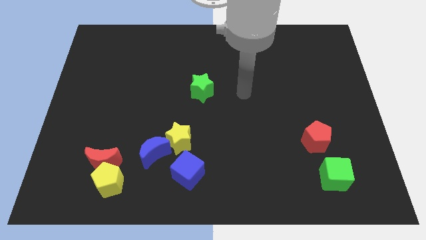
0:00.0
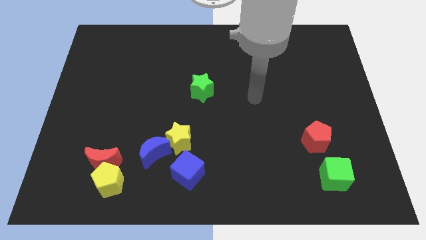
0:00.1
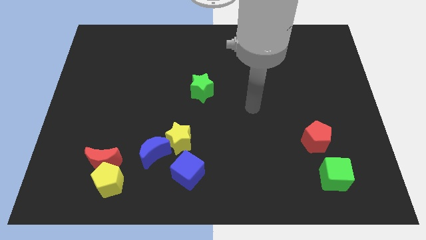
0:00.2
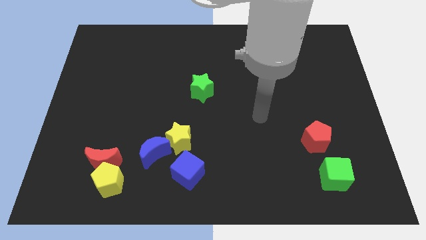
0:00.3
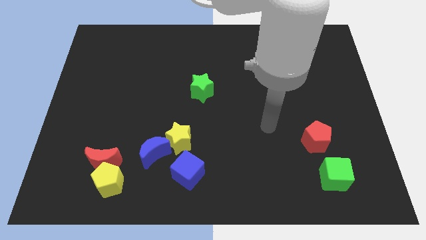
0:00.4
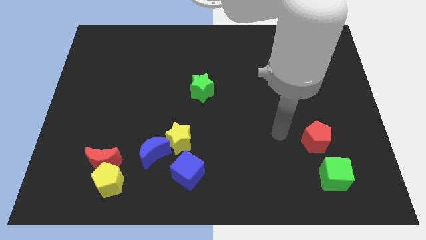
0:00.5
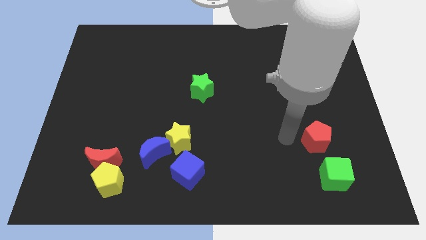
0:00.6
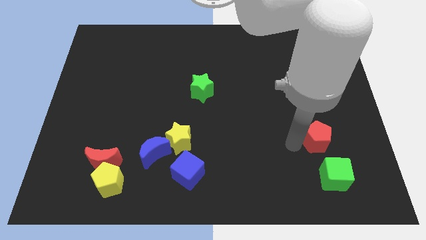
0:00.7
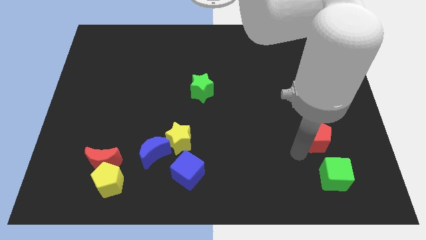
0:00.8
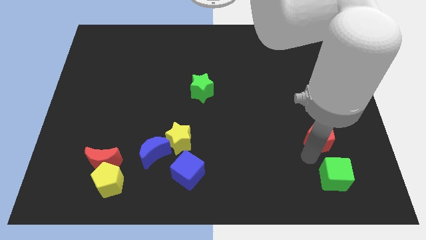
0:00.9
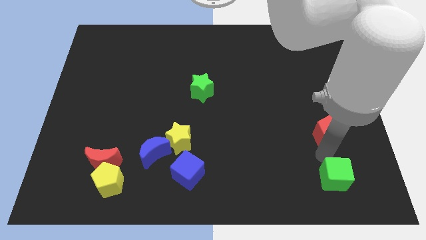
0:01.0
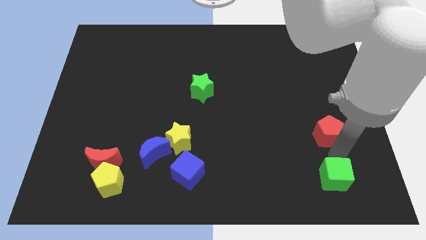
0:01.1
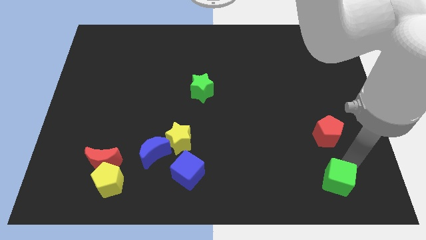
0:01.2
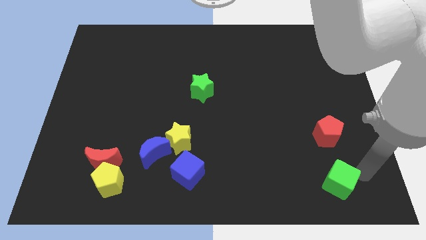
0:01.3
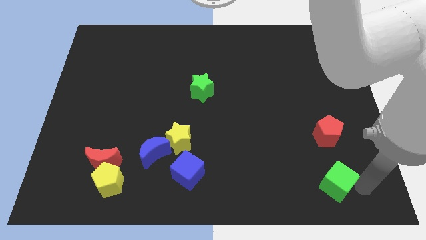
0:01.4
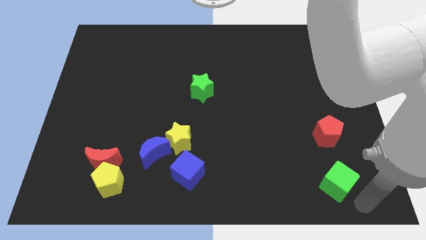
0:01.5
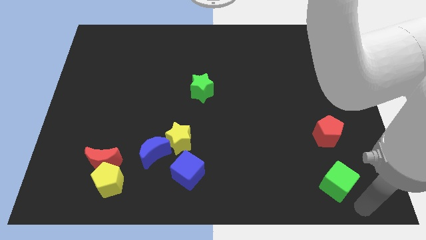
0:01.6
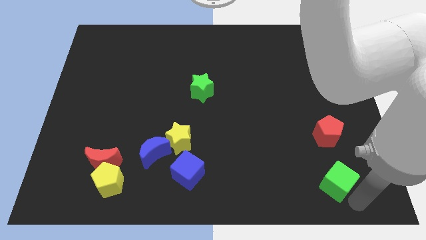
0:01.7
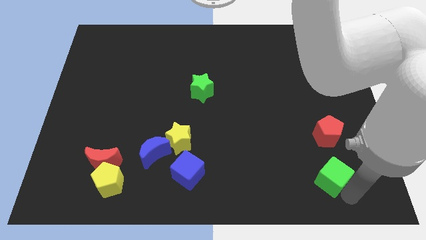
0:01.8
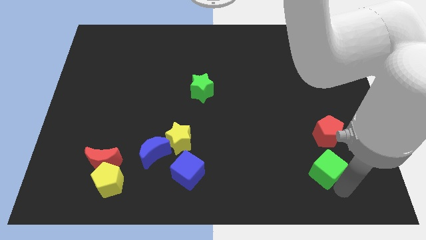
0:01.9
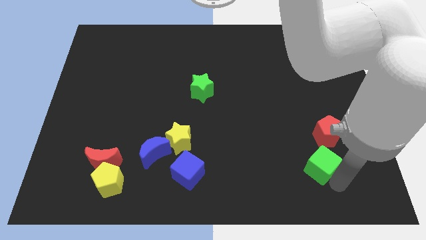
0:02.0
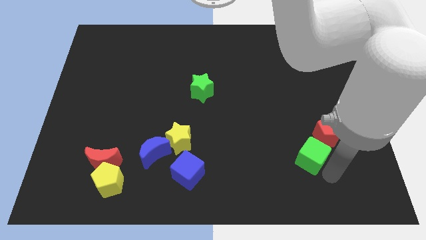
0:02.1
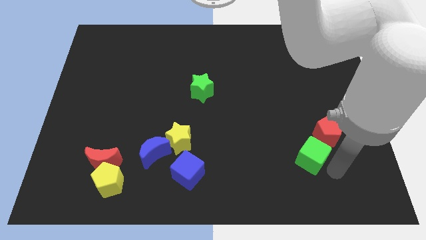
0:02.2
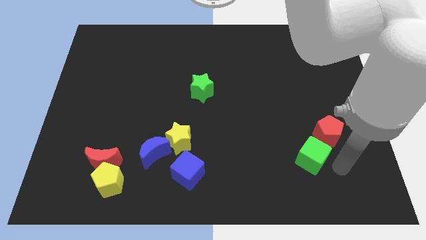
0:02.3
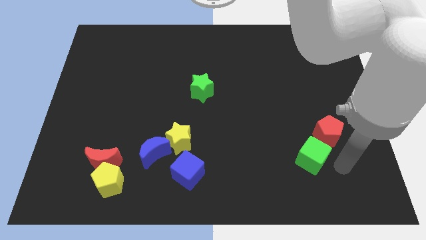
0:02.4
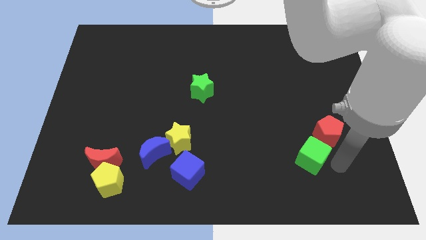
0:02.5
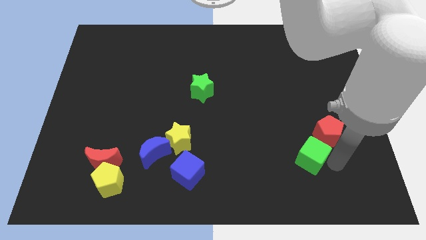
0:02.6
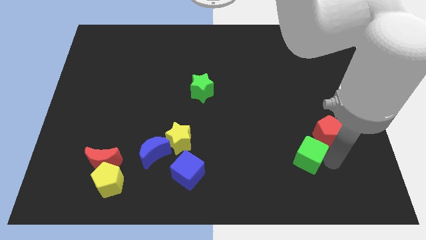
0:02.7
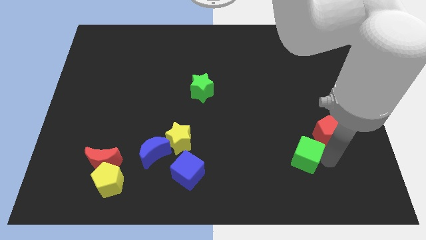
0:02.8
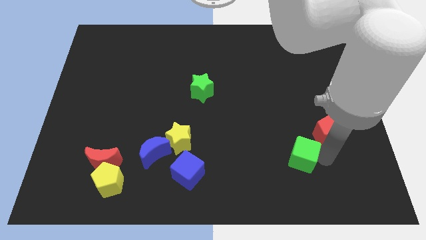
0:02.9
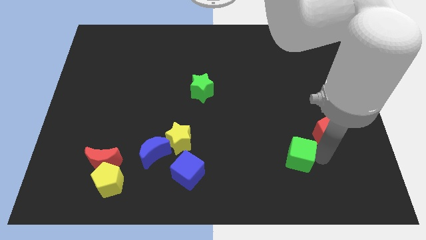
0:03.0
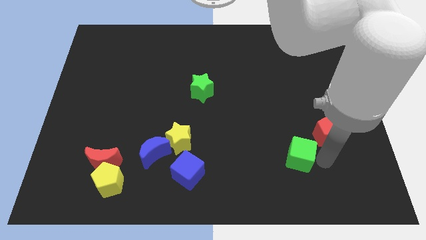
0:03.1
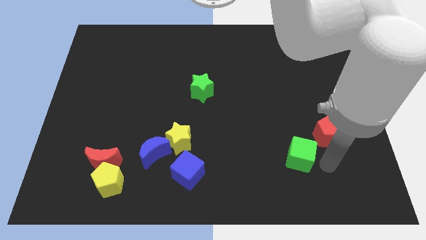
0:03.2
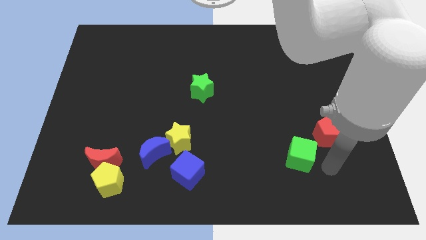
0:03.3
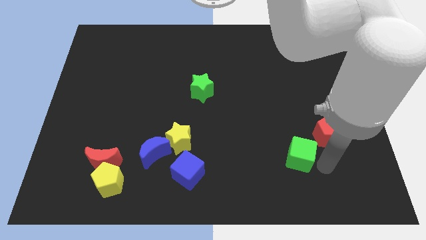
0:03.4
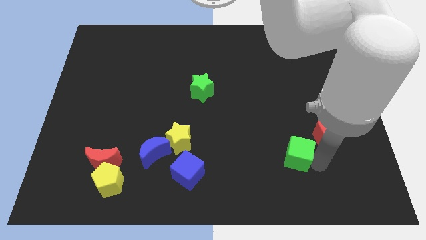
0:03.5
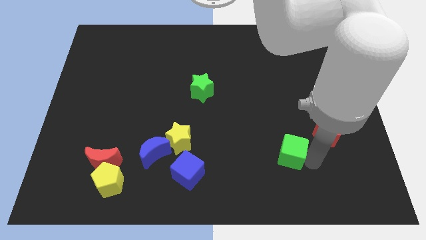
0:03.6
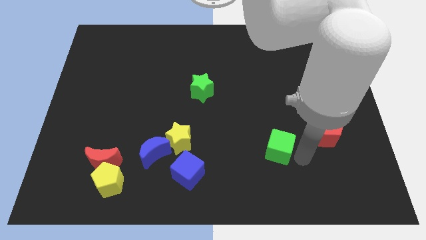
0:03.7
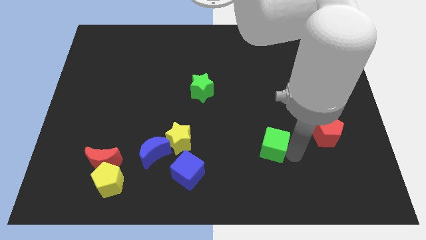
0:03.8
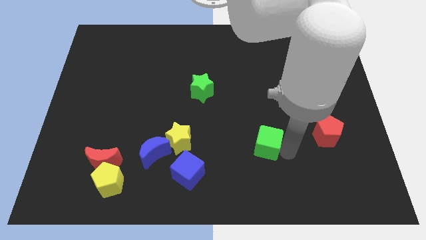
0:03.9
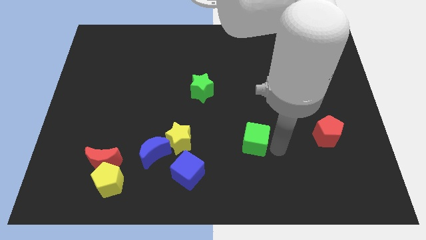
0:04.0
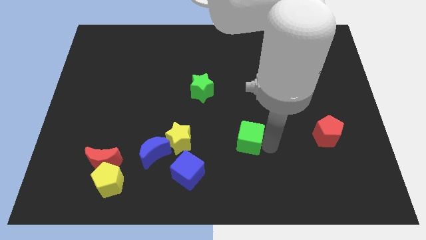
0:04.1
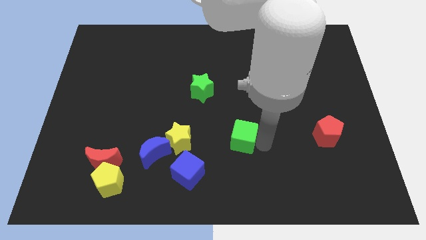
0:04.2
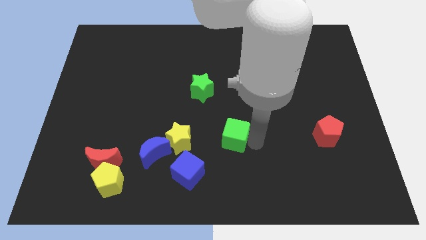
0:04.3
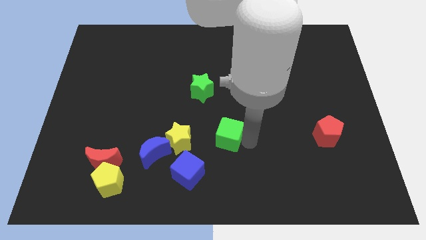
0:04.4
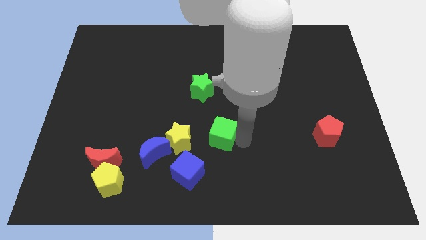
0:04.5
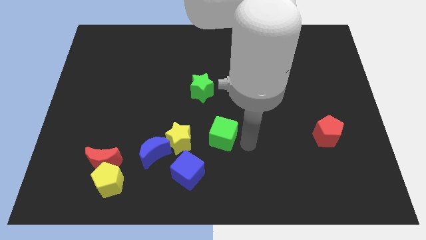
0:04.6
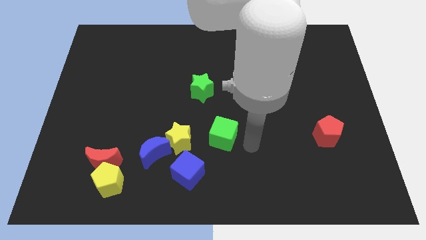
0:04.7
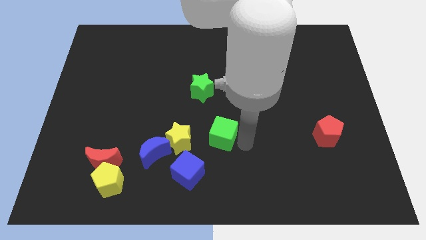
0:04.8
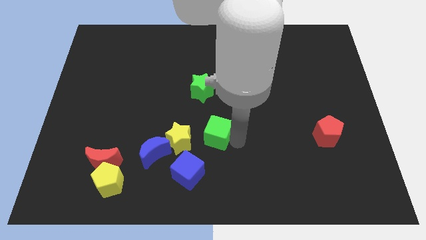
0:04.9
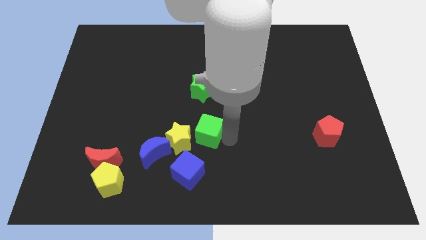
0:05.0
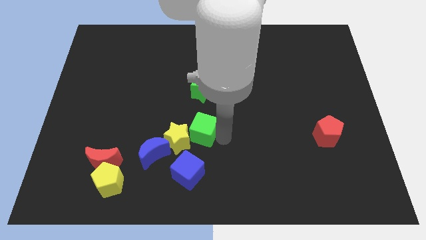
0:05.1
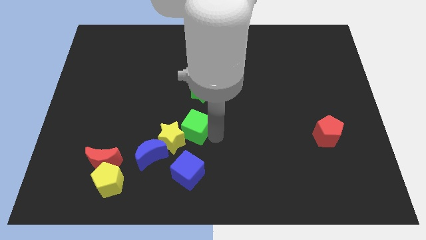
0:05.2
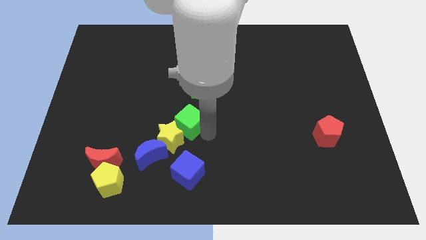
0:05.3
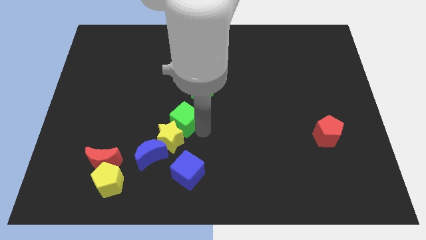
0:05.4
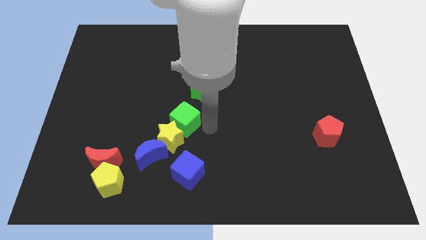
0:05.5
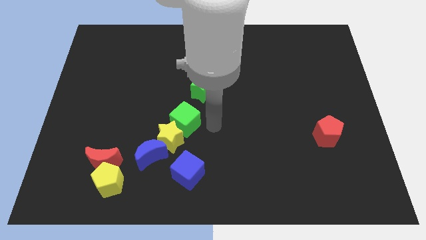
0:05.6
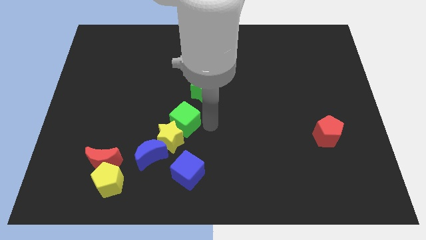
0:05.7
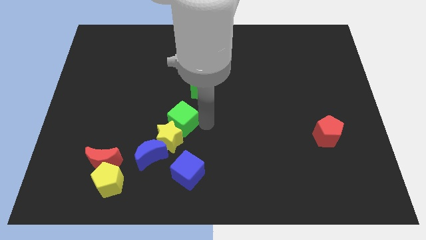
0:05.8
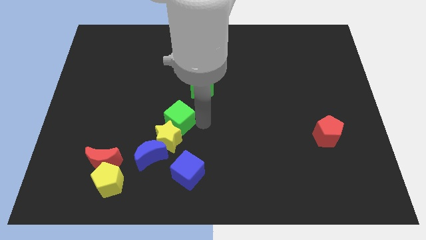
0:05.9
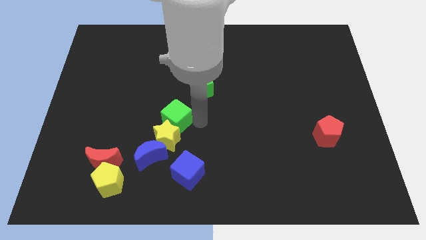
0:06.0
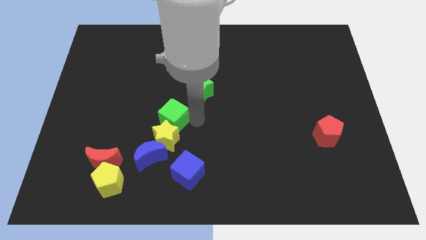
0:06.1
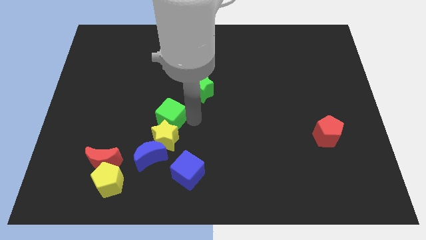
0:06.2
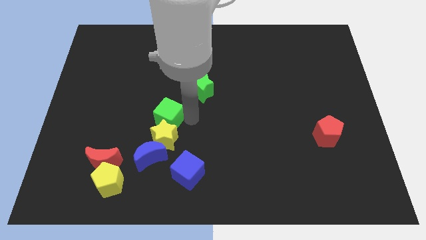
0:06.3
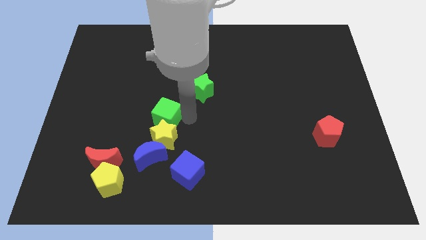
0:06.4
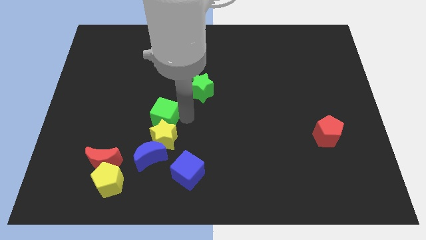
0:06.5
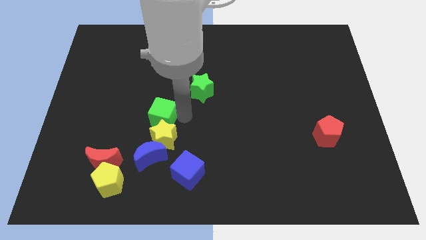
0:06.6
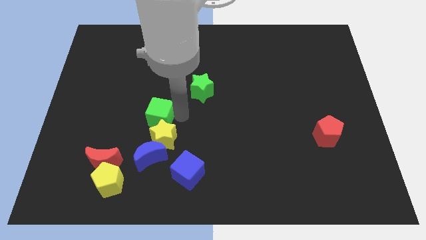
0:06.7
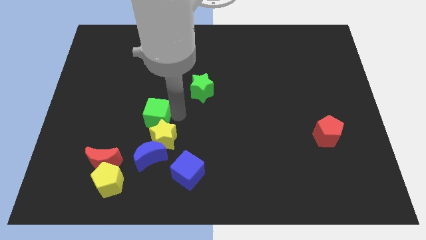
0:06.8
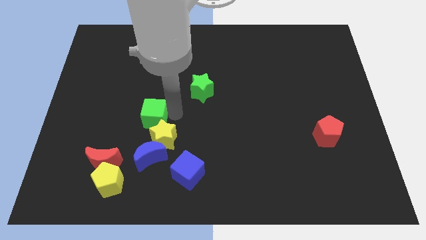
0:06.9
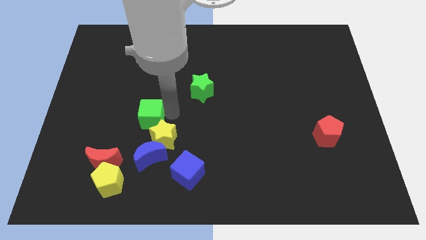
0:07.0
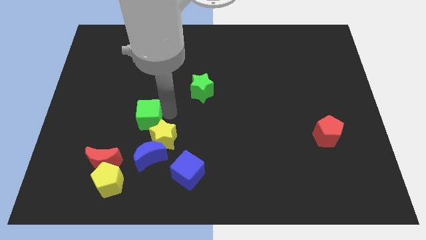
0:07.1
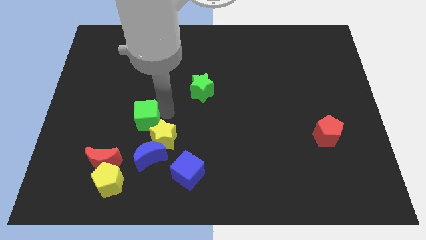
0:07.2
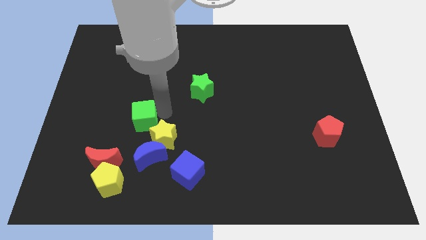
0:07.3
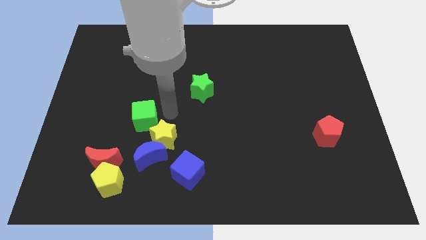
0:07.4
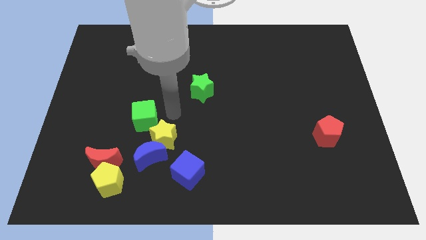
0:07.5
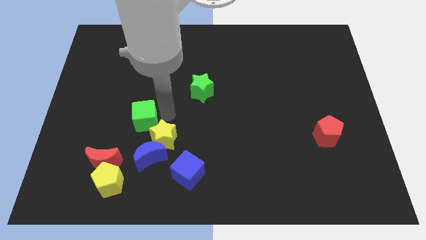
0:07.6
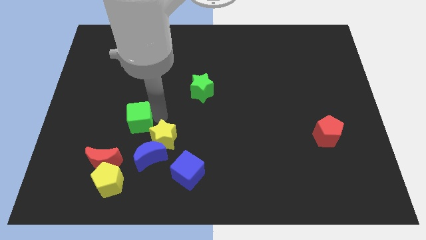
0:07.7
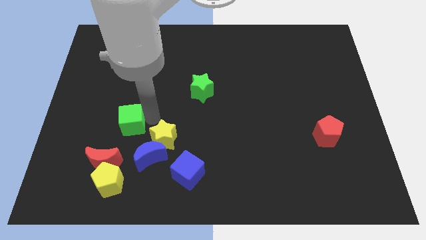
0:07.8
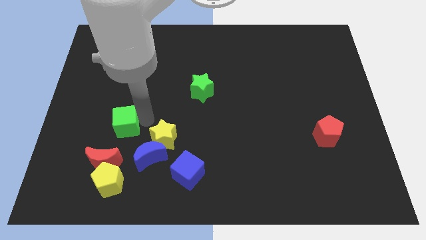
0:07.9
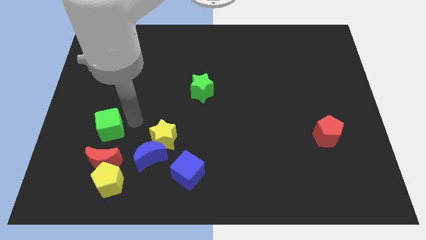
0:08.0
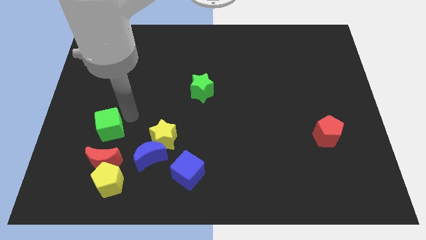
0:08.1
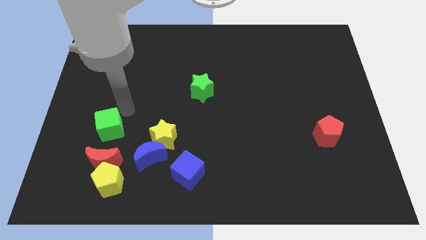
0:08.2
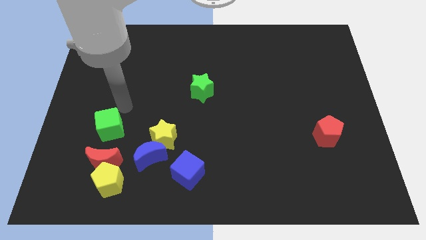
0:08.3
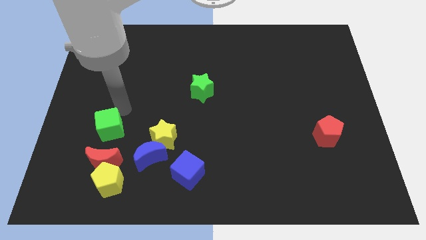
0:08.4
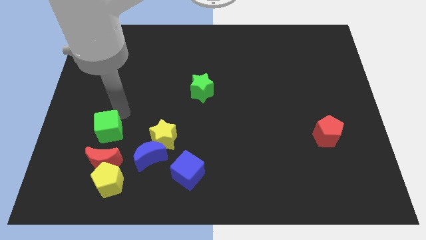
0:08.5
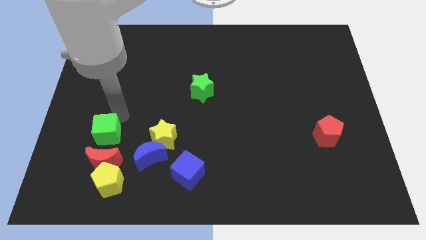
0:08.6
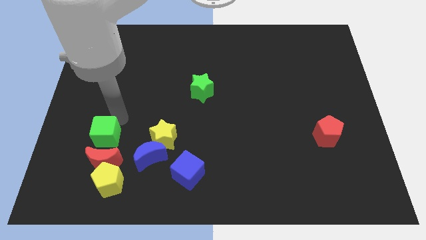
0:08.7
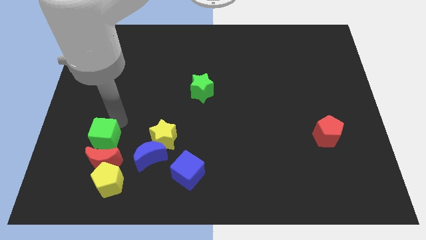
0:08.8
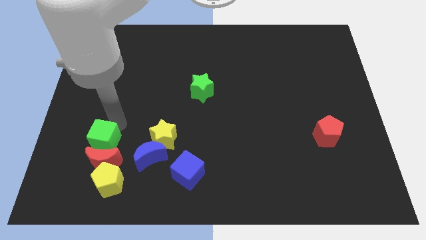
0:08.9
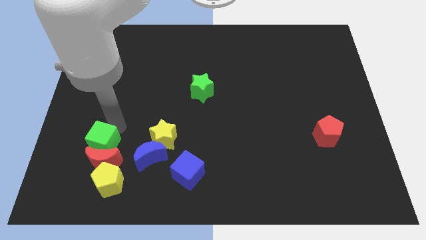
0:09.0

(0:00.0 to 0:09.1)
slide the green cube to the top left side of the yellow pentagon
